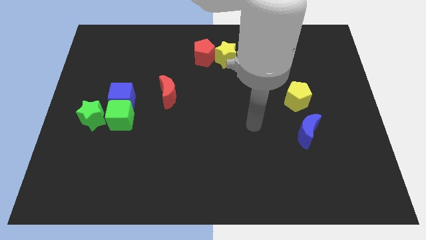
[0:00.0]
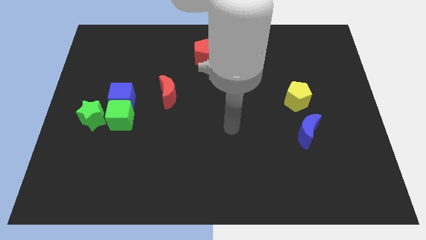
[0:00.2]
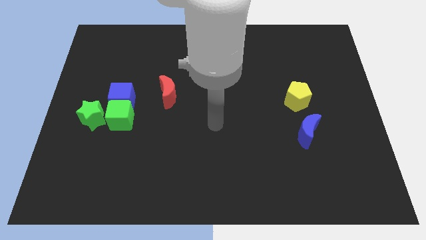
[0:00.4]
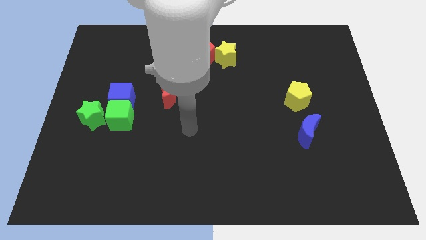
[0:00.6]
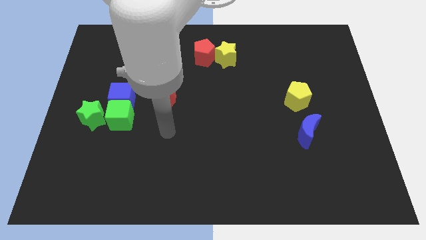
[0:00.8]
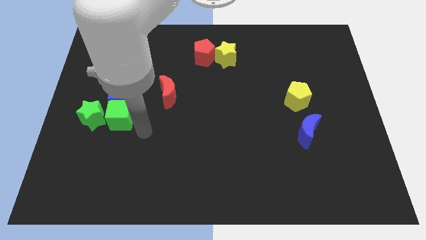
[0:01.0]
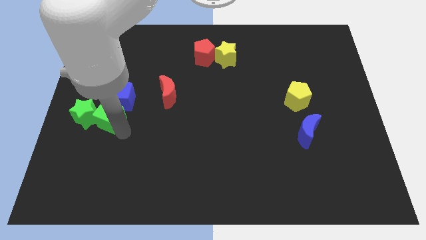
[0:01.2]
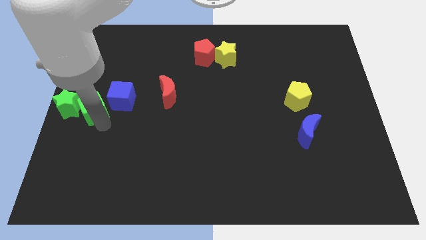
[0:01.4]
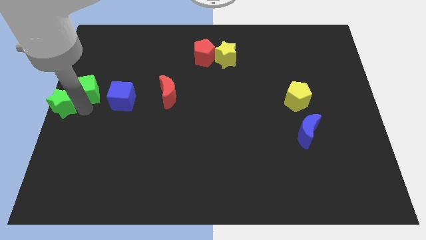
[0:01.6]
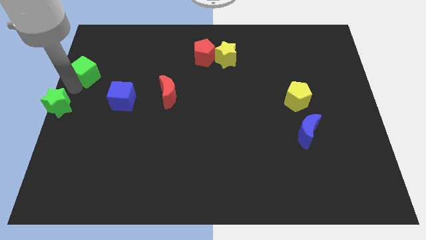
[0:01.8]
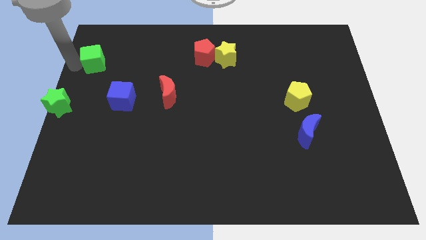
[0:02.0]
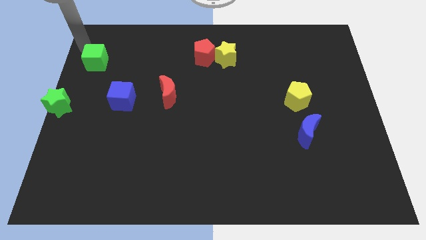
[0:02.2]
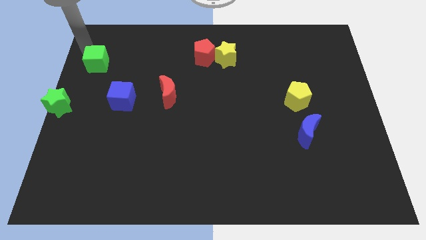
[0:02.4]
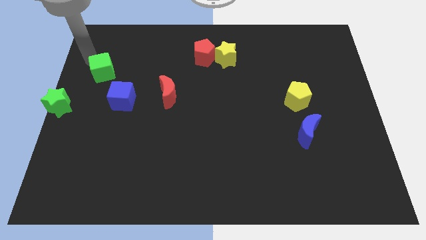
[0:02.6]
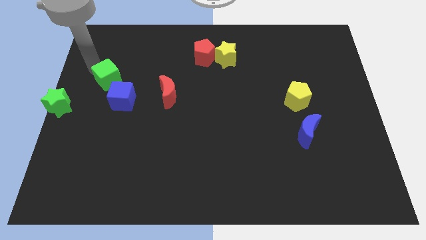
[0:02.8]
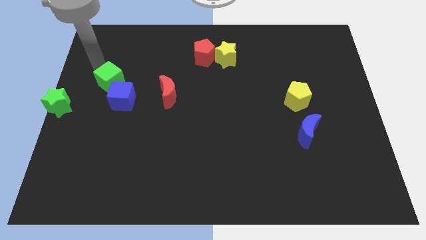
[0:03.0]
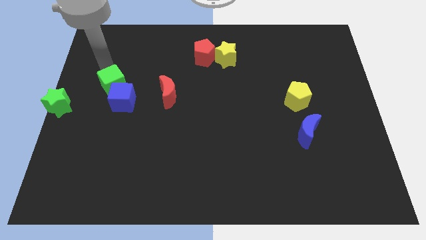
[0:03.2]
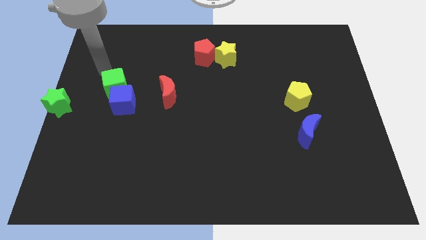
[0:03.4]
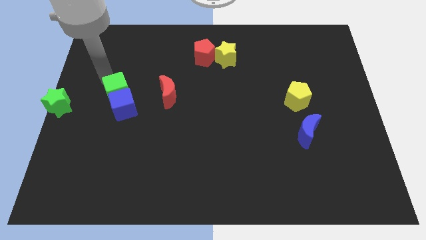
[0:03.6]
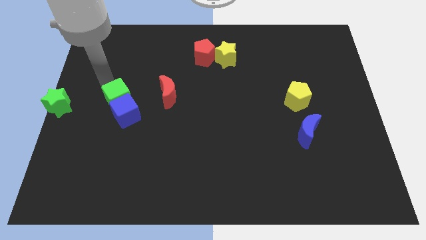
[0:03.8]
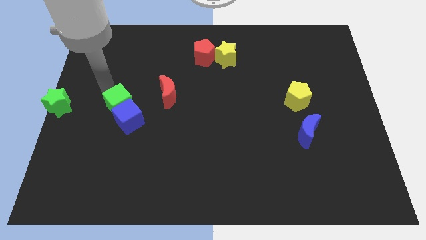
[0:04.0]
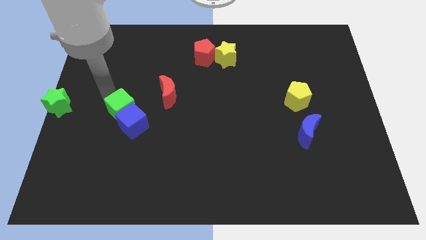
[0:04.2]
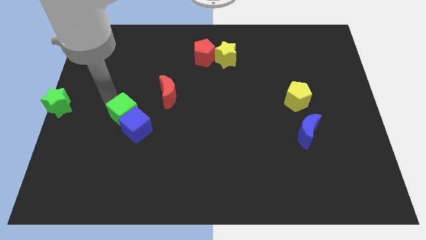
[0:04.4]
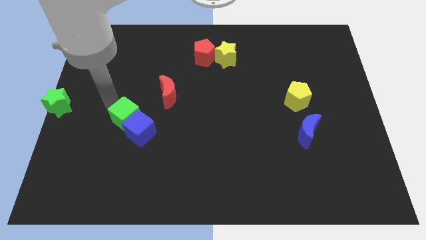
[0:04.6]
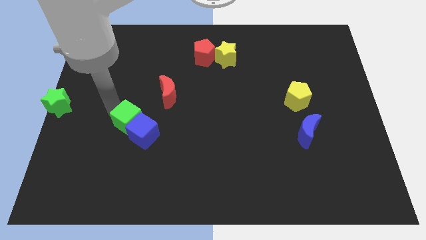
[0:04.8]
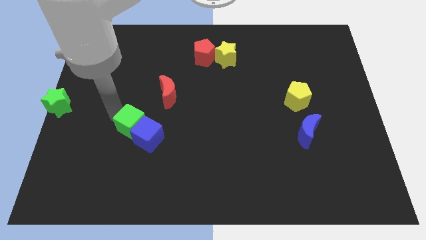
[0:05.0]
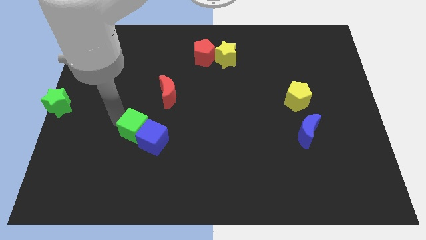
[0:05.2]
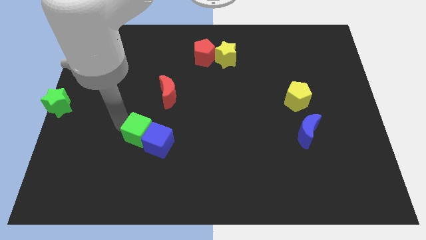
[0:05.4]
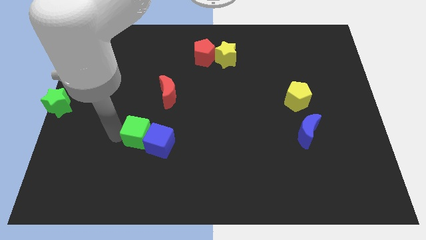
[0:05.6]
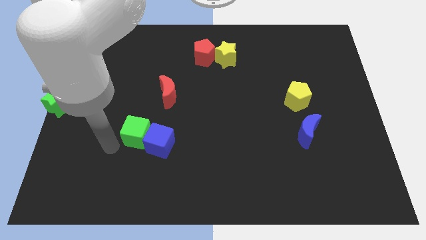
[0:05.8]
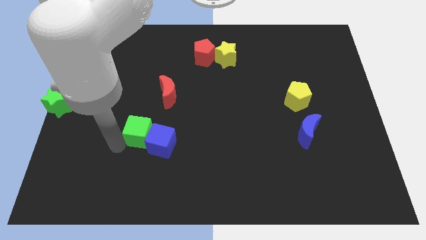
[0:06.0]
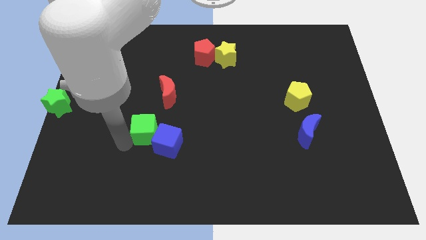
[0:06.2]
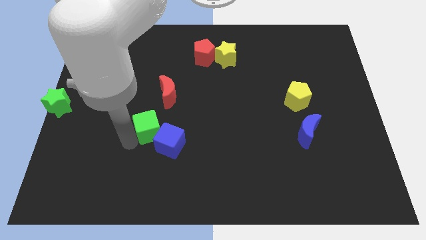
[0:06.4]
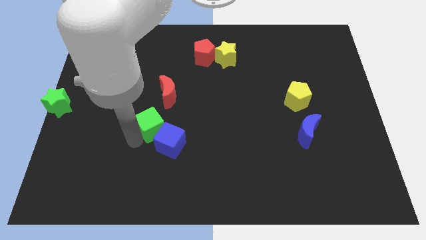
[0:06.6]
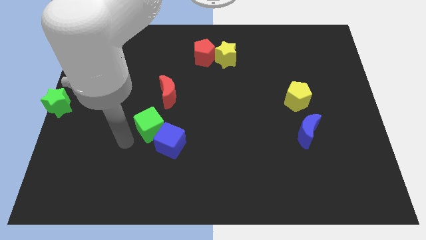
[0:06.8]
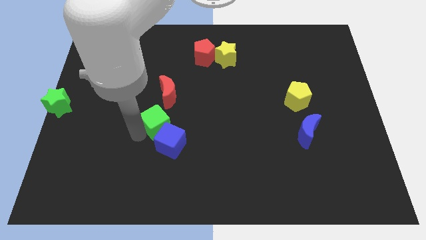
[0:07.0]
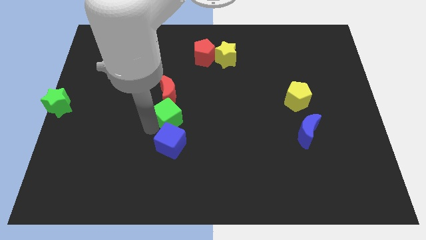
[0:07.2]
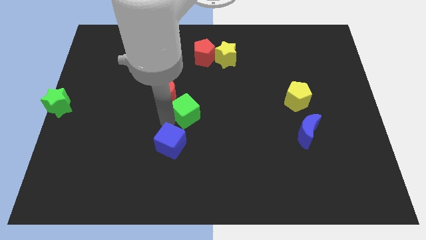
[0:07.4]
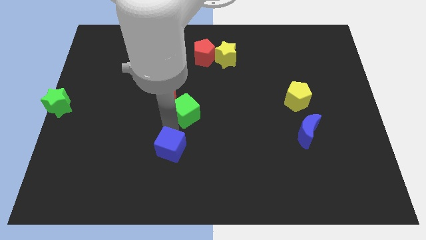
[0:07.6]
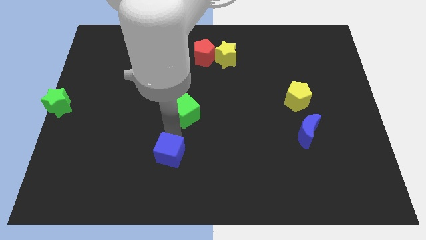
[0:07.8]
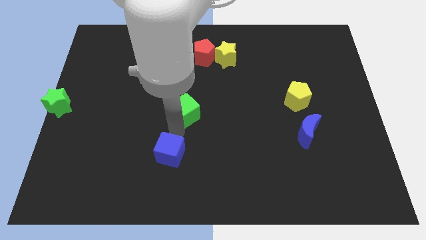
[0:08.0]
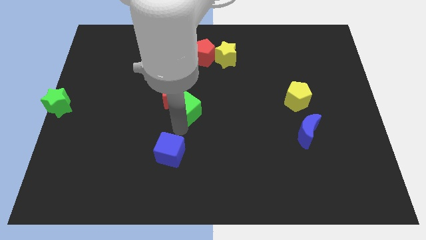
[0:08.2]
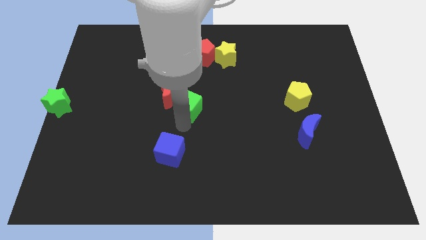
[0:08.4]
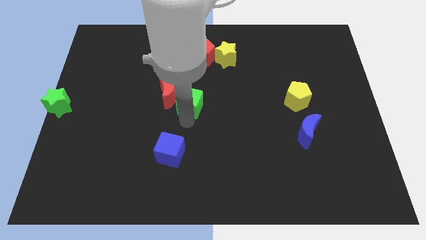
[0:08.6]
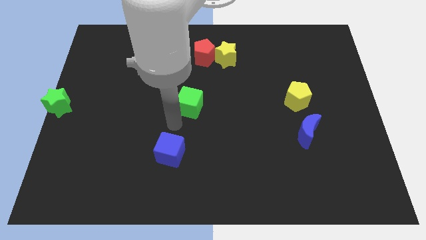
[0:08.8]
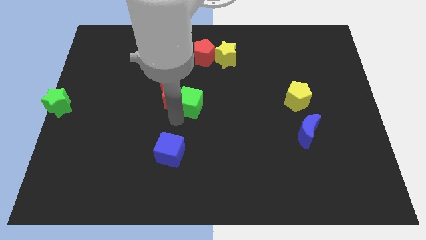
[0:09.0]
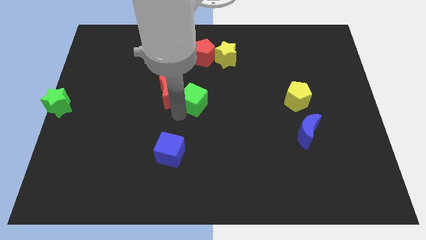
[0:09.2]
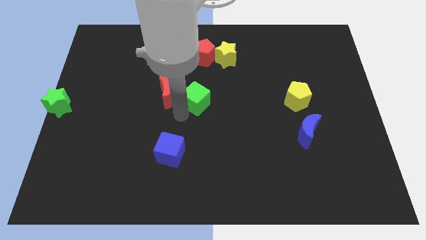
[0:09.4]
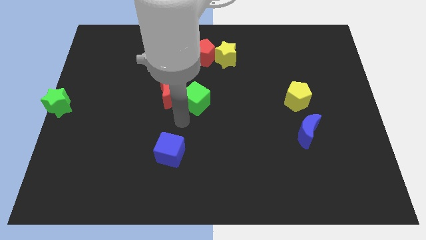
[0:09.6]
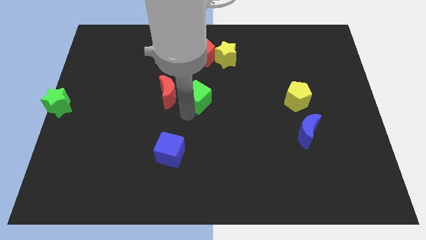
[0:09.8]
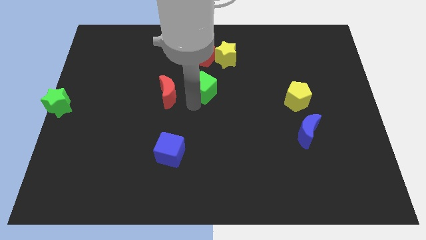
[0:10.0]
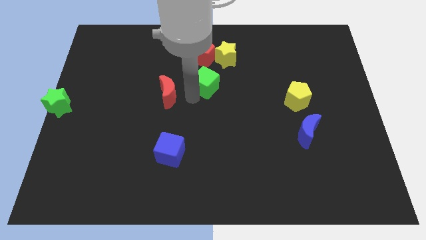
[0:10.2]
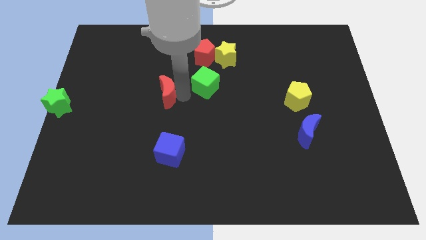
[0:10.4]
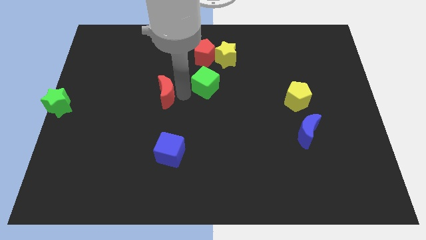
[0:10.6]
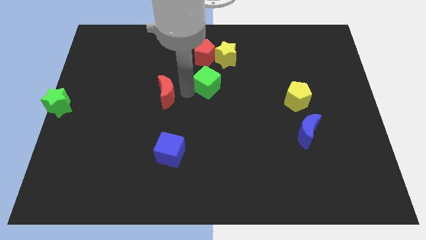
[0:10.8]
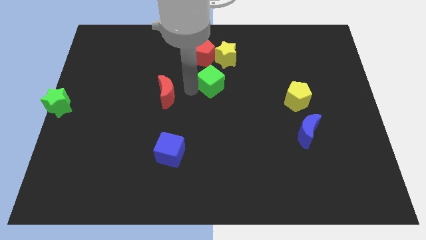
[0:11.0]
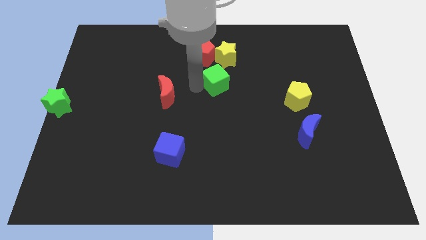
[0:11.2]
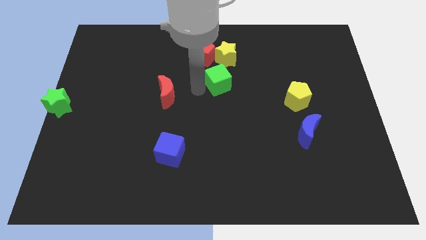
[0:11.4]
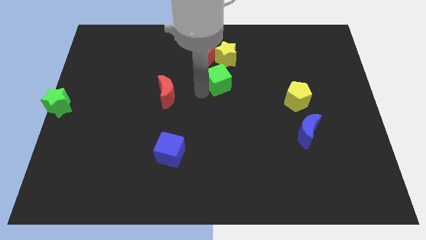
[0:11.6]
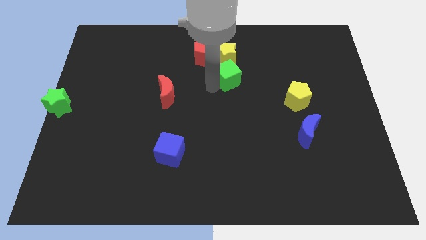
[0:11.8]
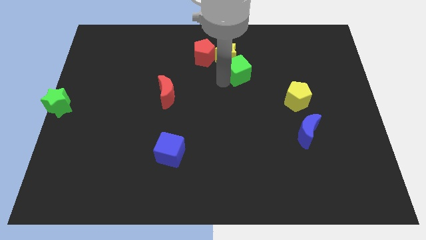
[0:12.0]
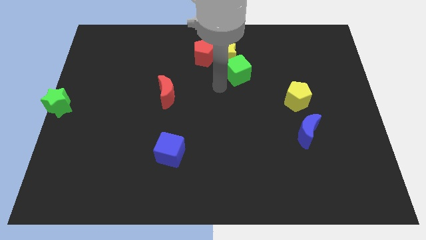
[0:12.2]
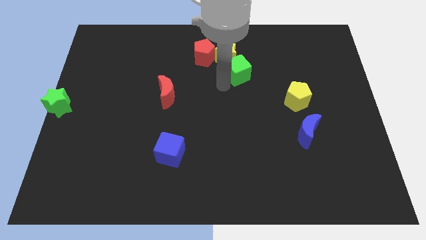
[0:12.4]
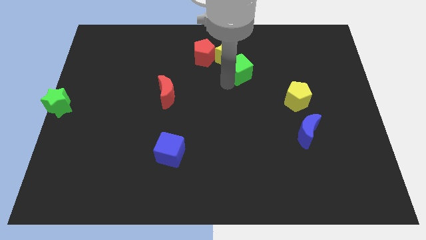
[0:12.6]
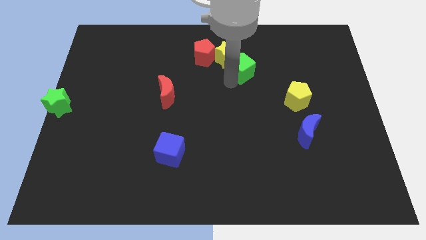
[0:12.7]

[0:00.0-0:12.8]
slide the green cube just right of the yellow star
